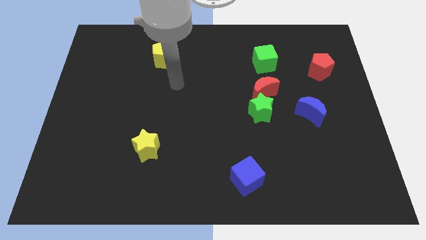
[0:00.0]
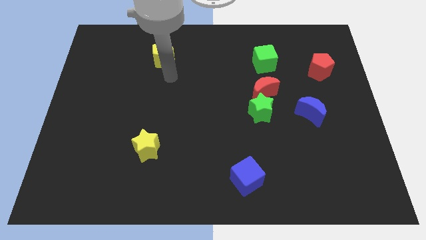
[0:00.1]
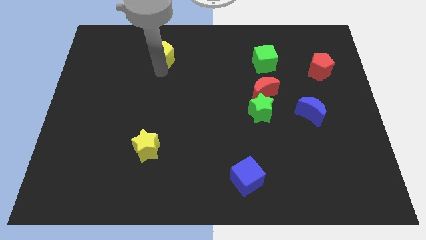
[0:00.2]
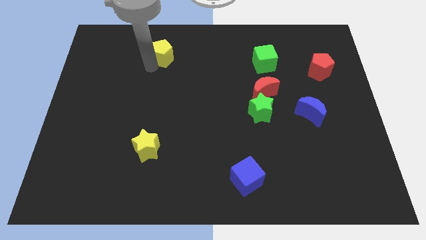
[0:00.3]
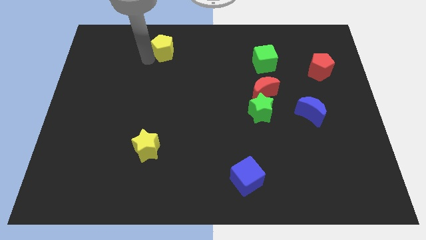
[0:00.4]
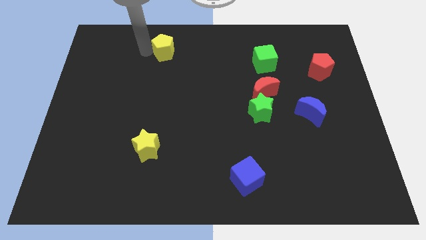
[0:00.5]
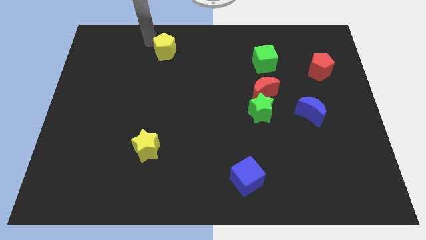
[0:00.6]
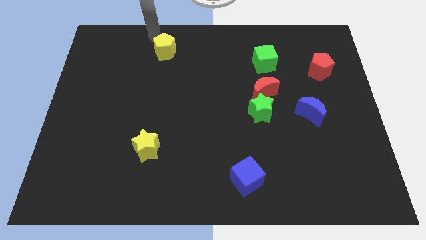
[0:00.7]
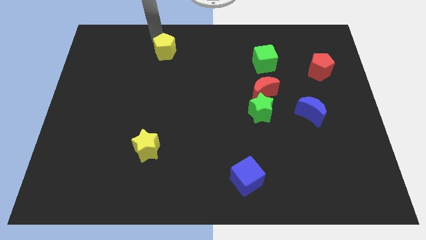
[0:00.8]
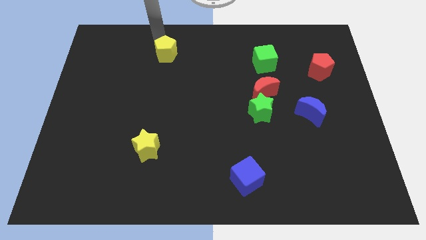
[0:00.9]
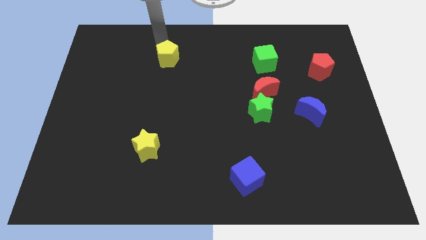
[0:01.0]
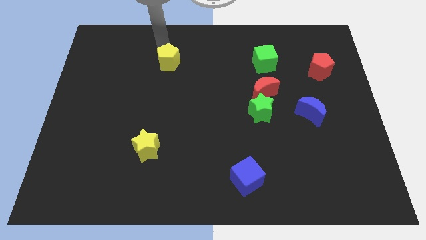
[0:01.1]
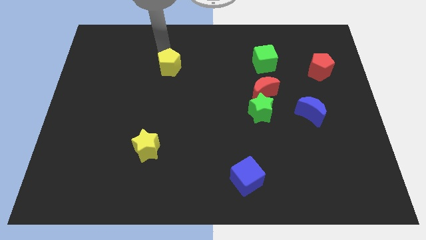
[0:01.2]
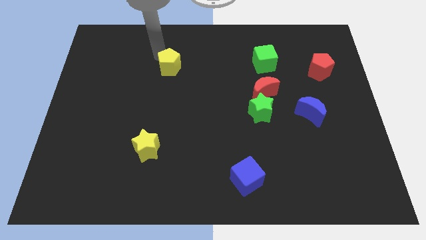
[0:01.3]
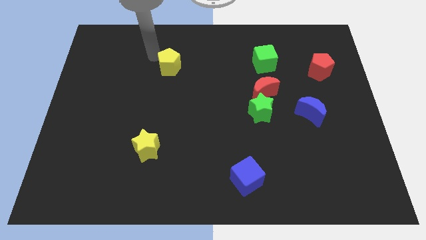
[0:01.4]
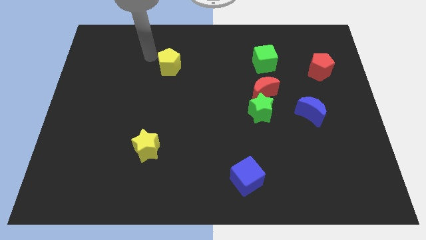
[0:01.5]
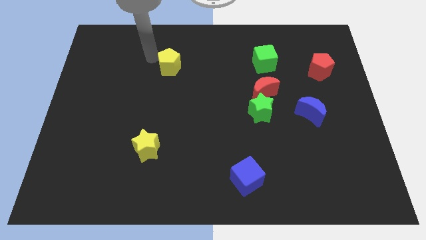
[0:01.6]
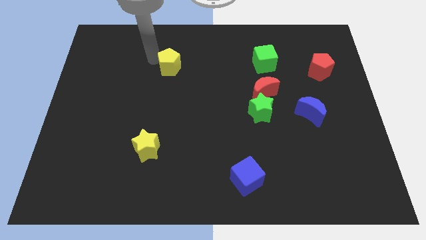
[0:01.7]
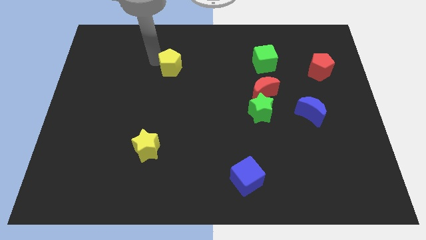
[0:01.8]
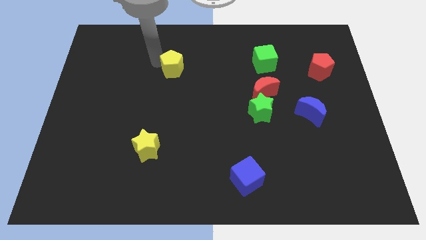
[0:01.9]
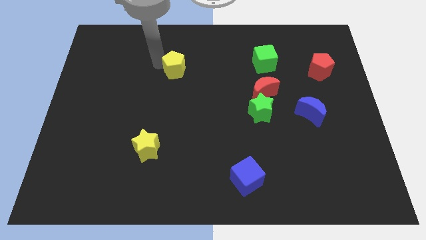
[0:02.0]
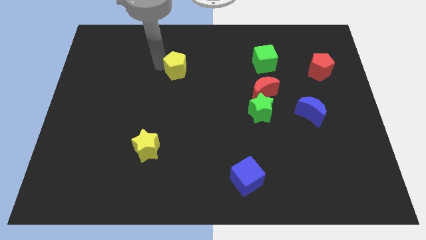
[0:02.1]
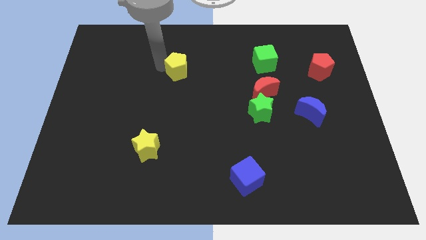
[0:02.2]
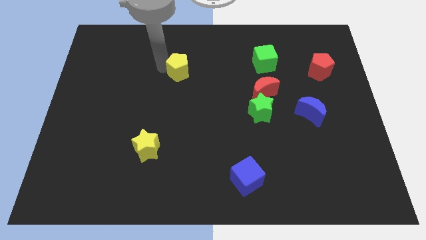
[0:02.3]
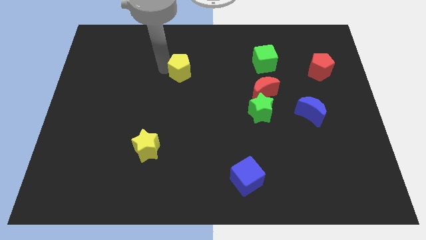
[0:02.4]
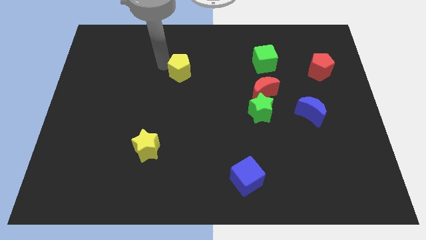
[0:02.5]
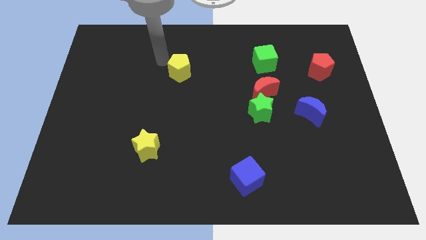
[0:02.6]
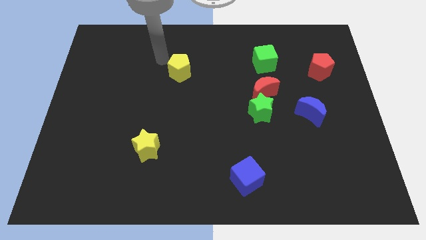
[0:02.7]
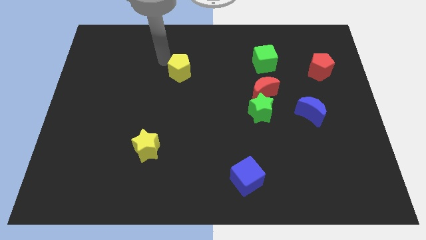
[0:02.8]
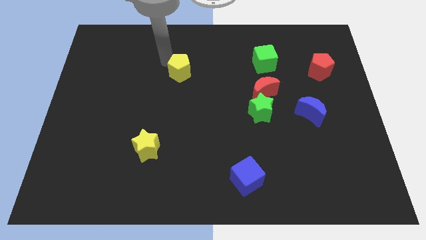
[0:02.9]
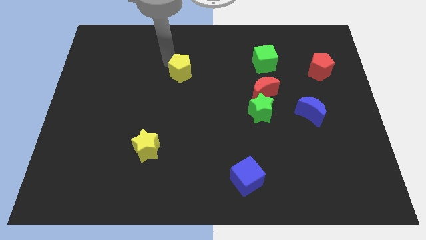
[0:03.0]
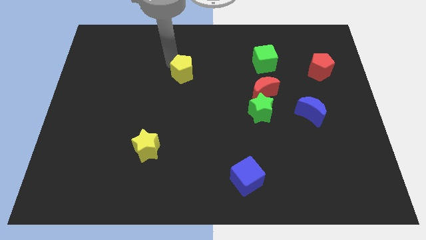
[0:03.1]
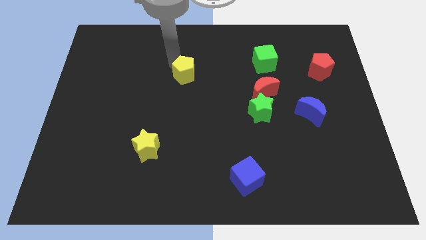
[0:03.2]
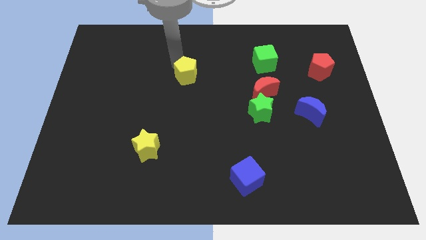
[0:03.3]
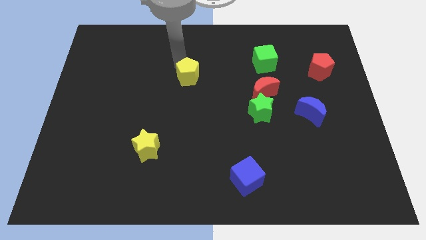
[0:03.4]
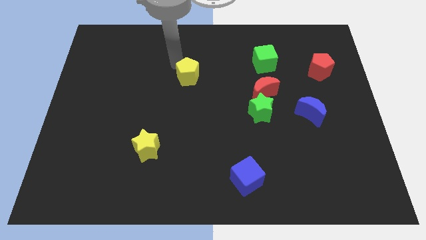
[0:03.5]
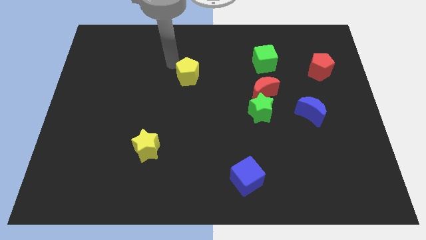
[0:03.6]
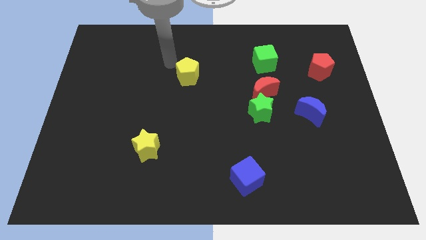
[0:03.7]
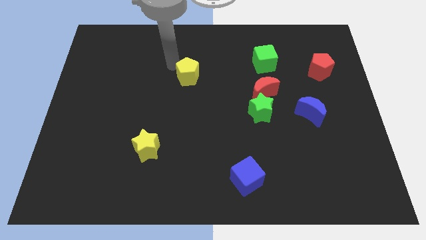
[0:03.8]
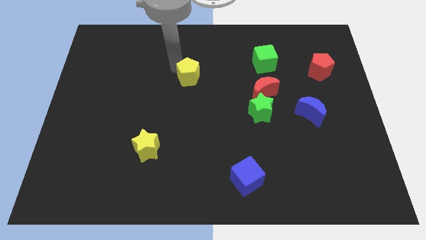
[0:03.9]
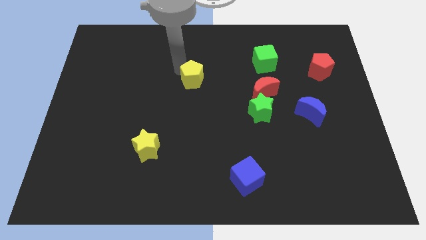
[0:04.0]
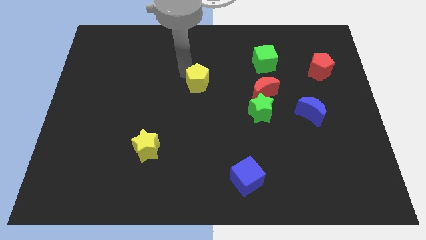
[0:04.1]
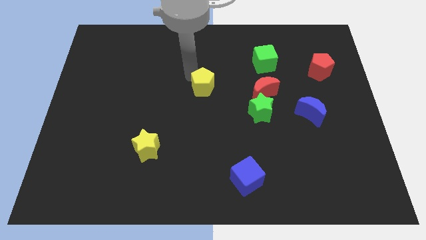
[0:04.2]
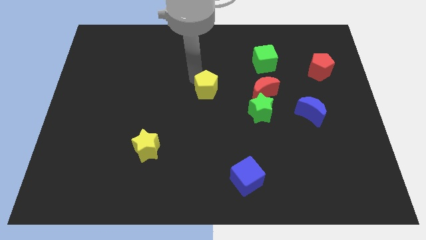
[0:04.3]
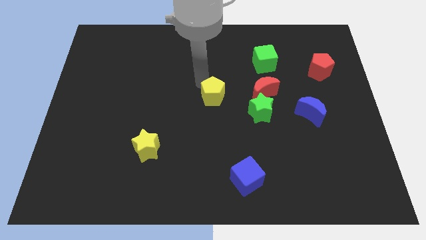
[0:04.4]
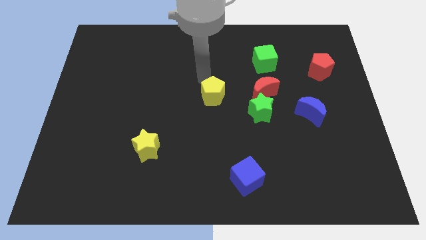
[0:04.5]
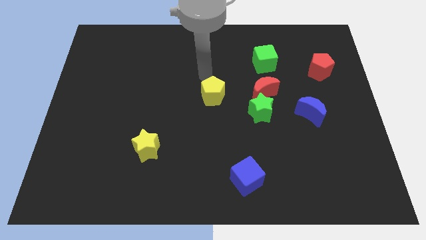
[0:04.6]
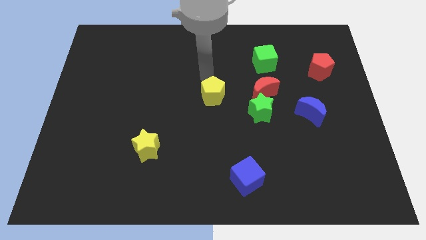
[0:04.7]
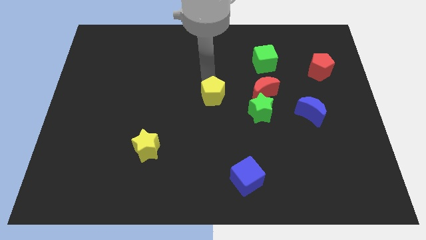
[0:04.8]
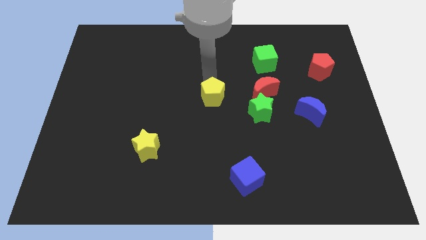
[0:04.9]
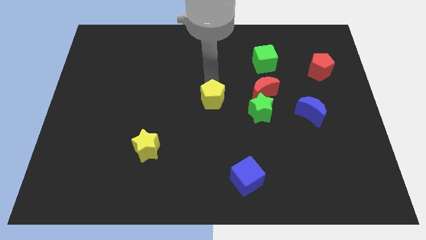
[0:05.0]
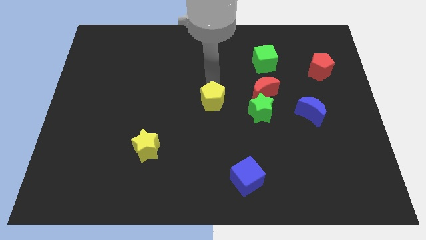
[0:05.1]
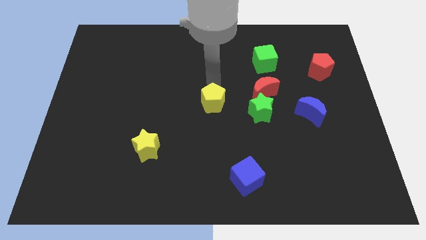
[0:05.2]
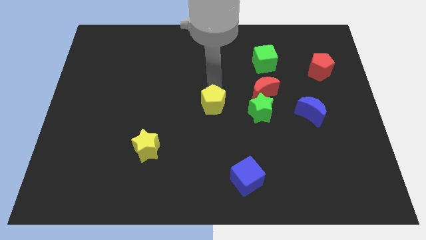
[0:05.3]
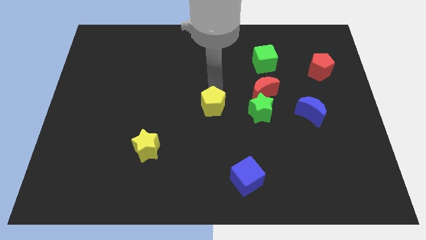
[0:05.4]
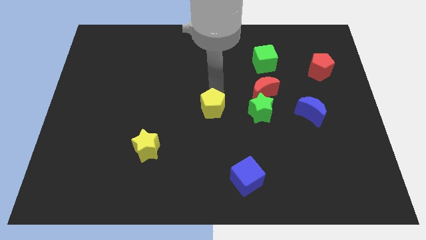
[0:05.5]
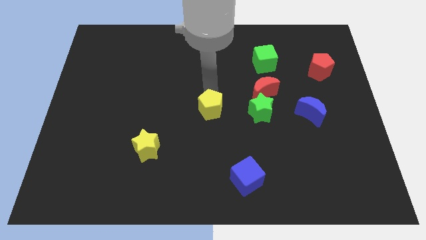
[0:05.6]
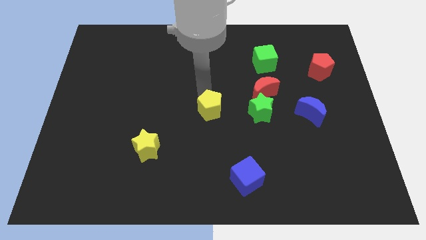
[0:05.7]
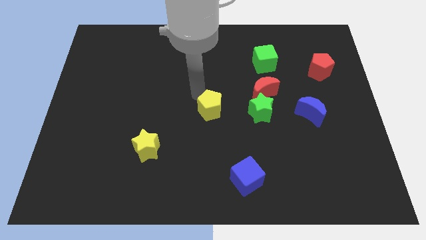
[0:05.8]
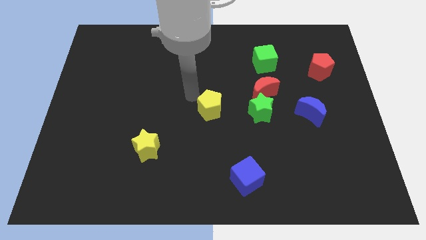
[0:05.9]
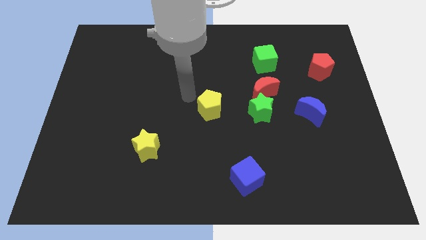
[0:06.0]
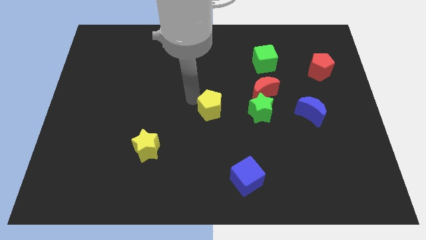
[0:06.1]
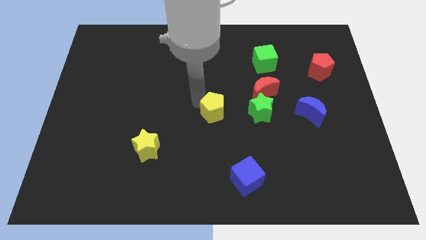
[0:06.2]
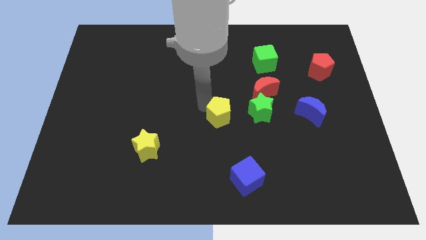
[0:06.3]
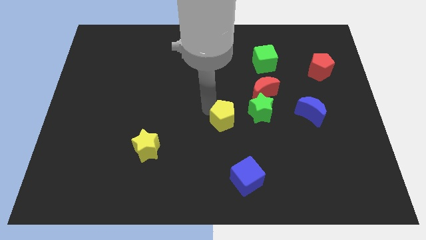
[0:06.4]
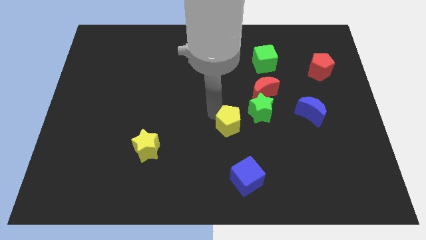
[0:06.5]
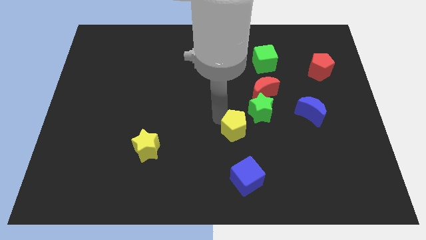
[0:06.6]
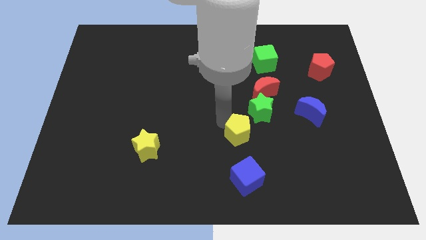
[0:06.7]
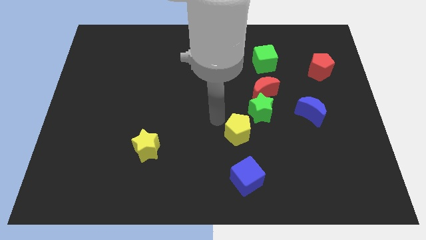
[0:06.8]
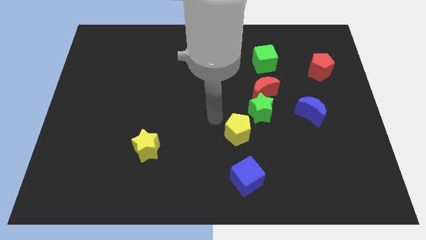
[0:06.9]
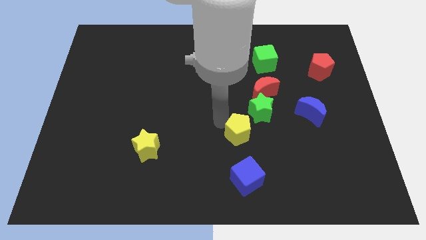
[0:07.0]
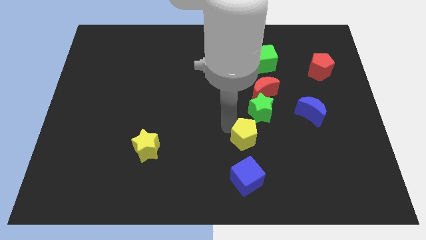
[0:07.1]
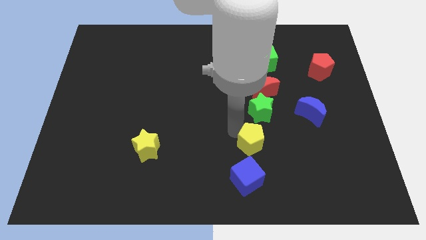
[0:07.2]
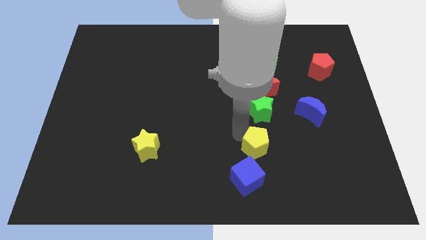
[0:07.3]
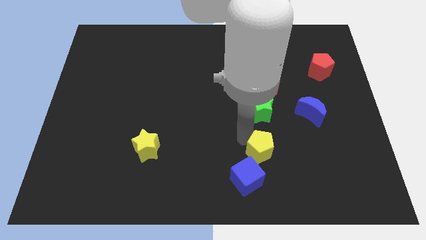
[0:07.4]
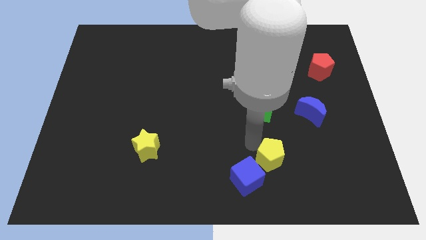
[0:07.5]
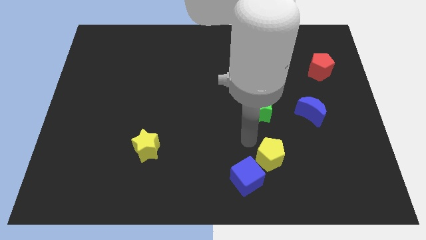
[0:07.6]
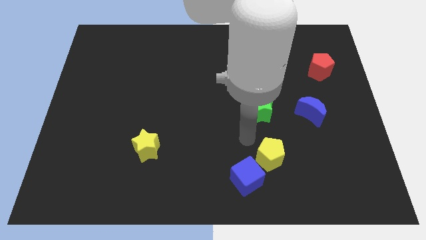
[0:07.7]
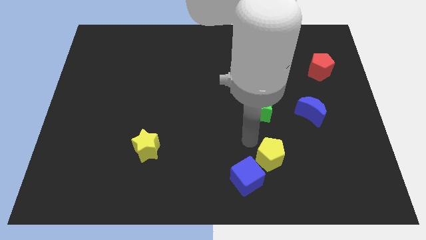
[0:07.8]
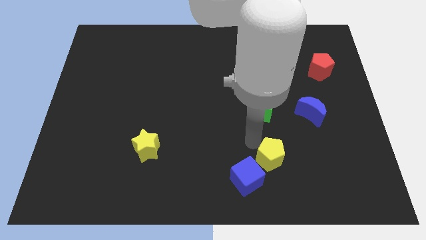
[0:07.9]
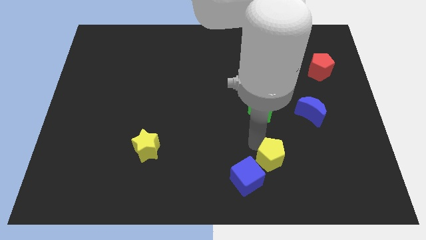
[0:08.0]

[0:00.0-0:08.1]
move the yellow pentagon to the right of the blue cube
